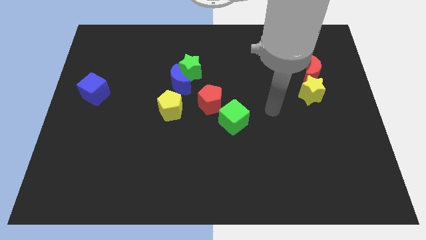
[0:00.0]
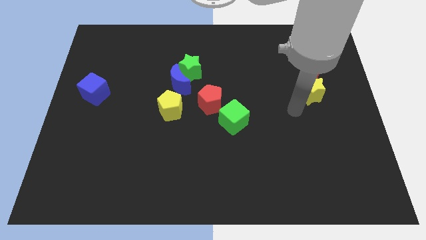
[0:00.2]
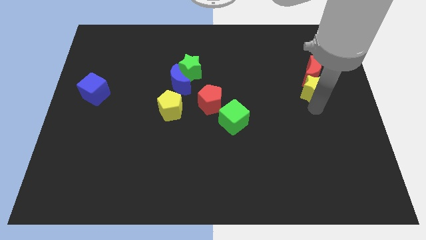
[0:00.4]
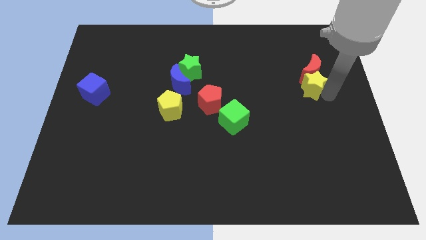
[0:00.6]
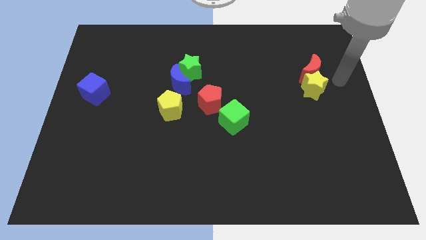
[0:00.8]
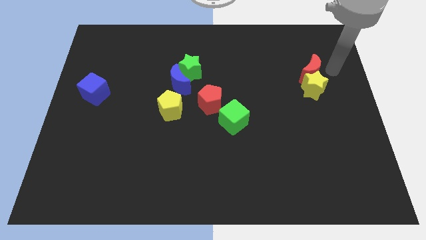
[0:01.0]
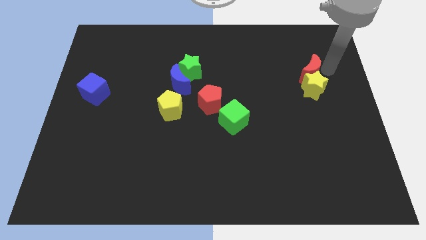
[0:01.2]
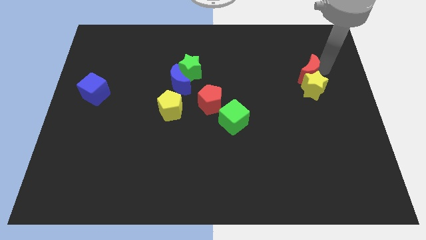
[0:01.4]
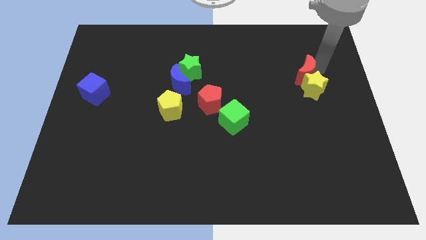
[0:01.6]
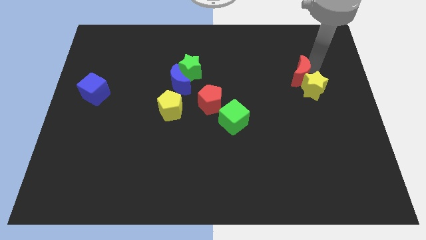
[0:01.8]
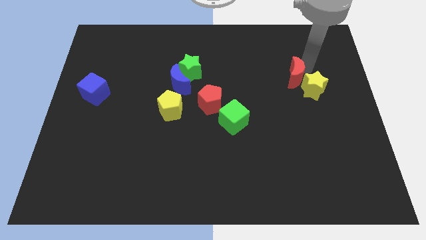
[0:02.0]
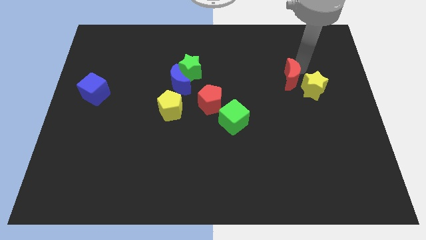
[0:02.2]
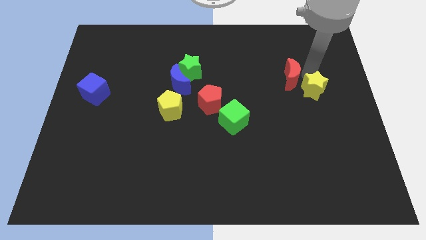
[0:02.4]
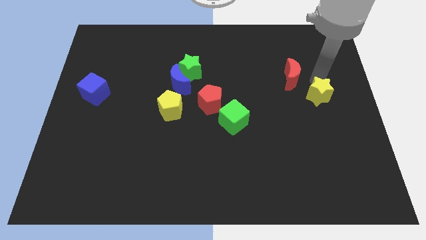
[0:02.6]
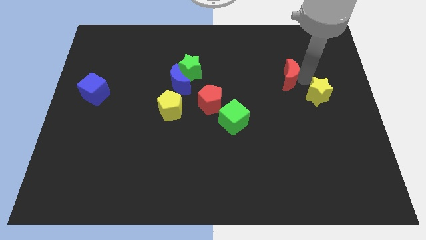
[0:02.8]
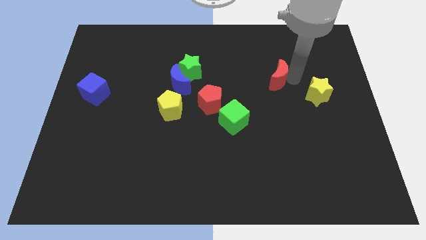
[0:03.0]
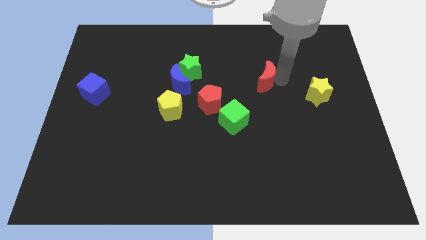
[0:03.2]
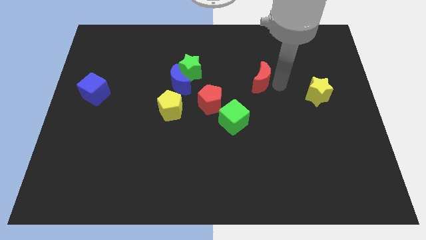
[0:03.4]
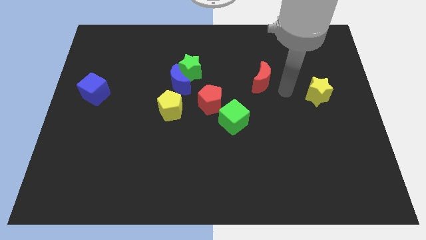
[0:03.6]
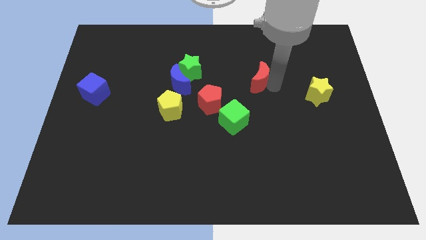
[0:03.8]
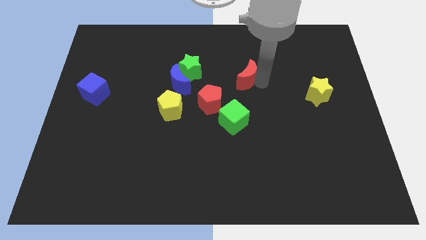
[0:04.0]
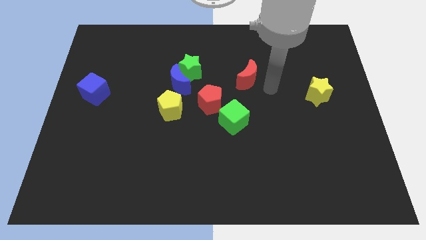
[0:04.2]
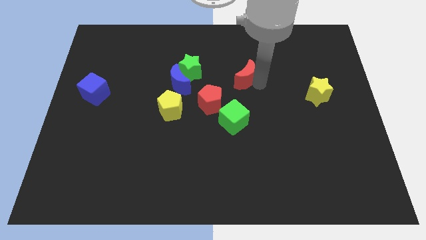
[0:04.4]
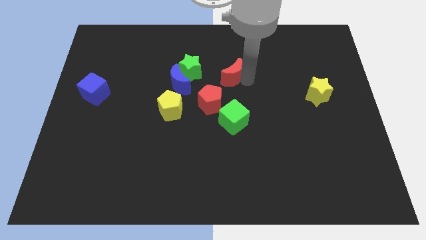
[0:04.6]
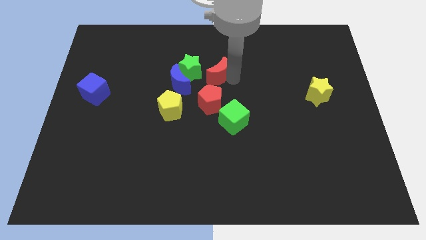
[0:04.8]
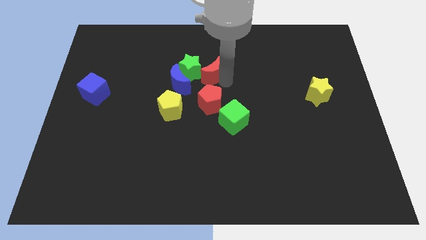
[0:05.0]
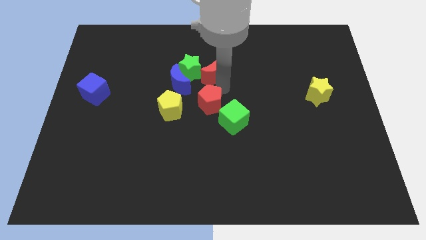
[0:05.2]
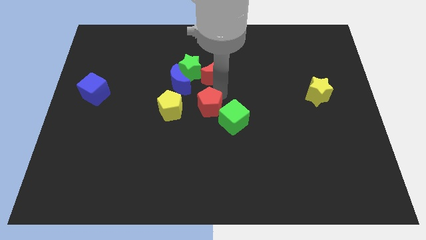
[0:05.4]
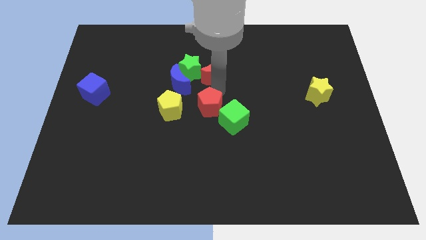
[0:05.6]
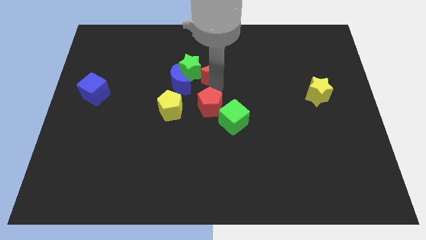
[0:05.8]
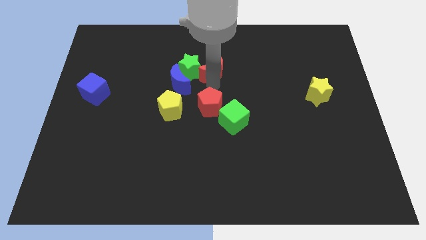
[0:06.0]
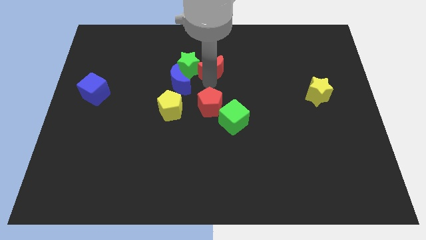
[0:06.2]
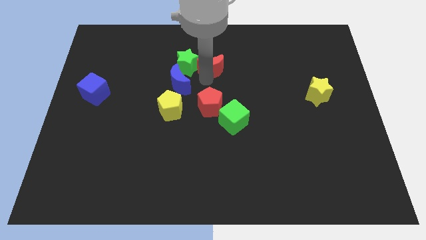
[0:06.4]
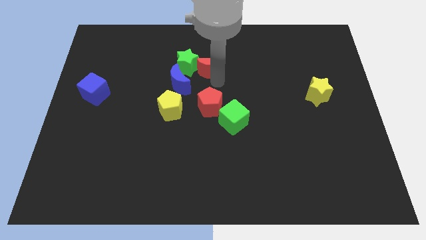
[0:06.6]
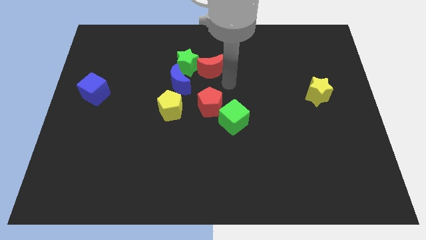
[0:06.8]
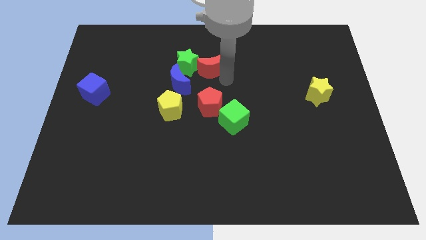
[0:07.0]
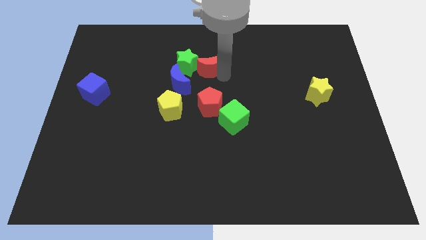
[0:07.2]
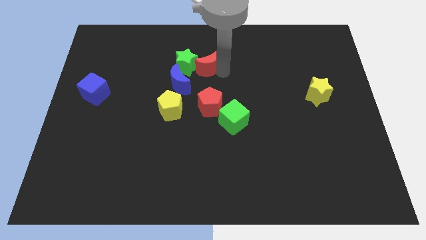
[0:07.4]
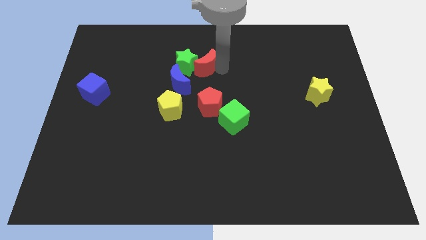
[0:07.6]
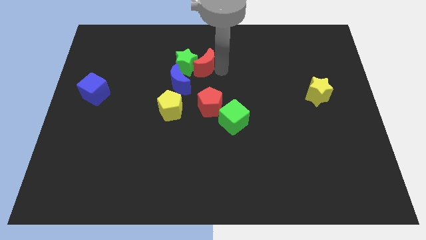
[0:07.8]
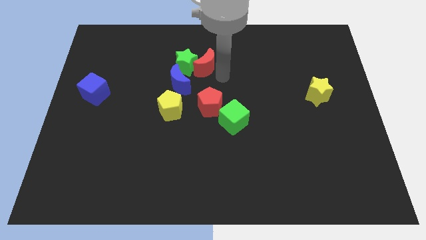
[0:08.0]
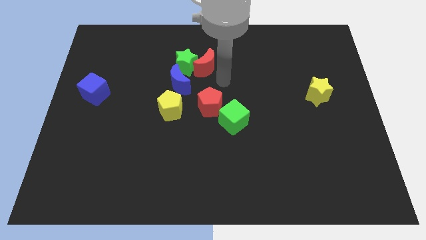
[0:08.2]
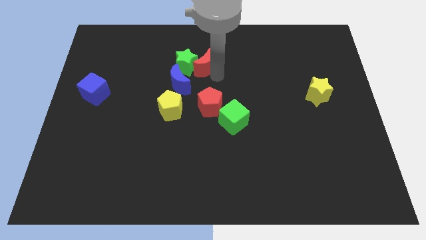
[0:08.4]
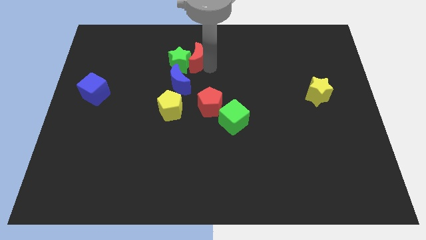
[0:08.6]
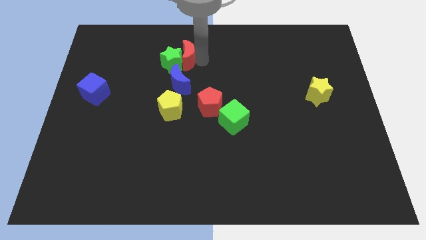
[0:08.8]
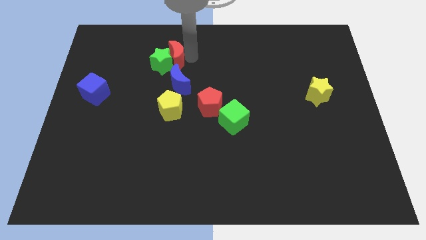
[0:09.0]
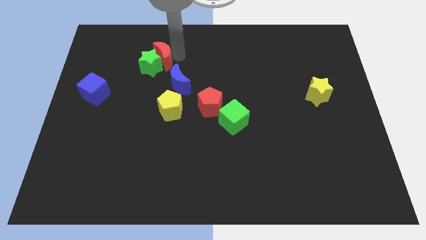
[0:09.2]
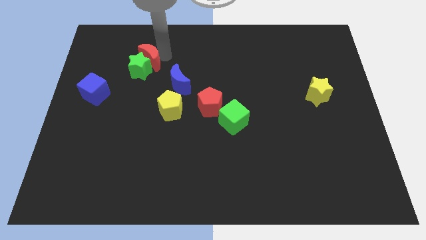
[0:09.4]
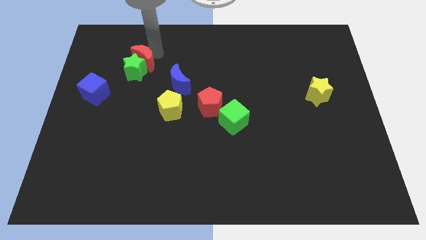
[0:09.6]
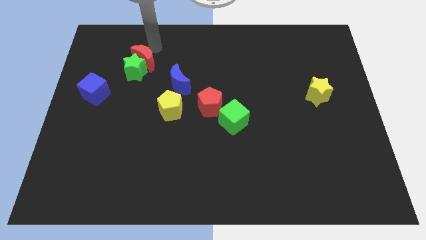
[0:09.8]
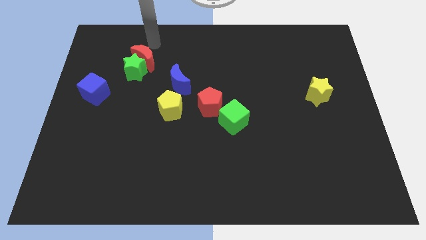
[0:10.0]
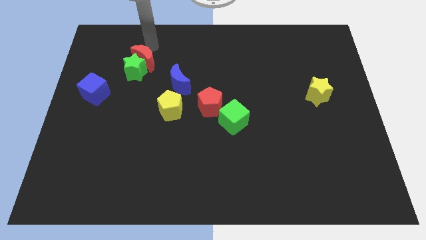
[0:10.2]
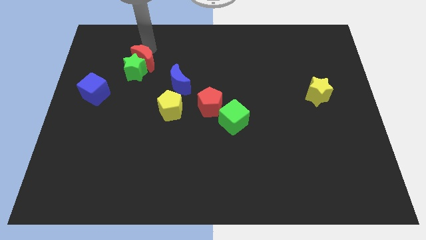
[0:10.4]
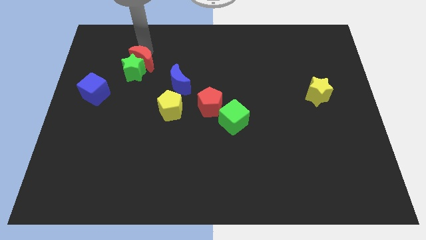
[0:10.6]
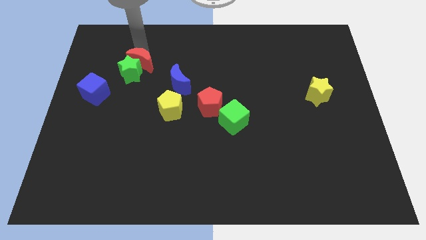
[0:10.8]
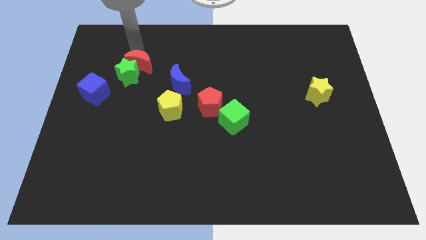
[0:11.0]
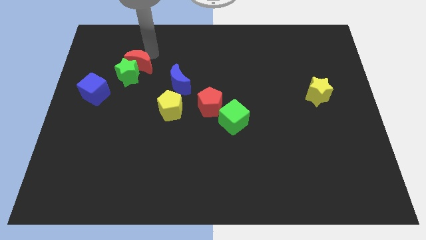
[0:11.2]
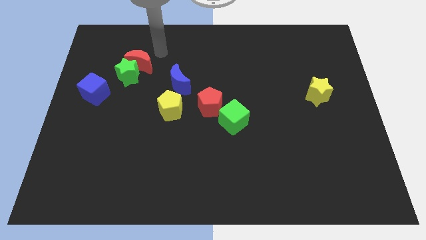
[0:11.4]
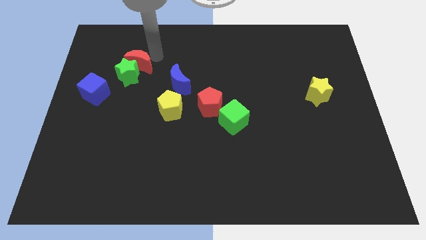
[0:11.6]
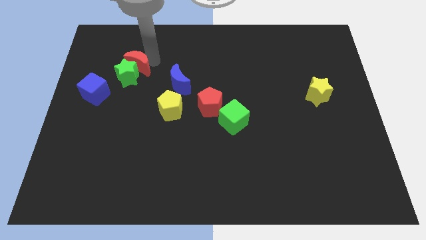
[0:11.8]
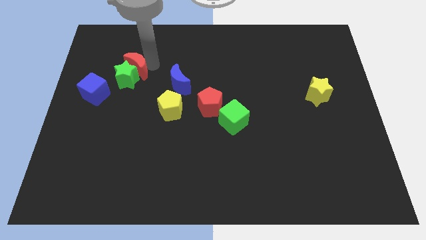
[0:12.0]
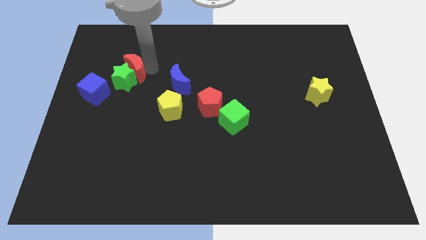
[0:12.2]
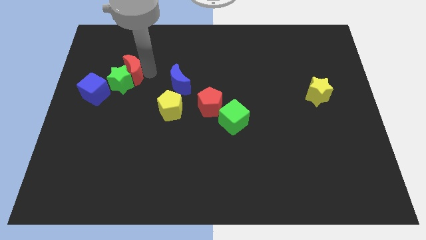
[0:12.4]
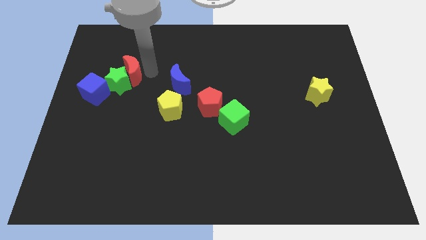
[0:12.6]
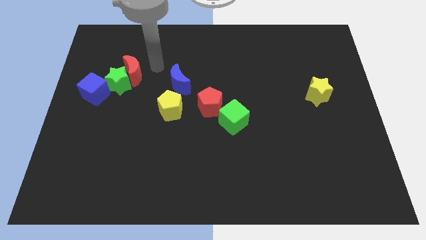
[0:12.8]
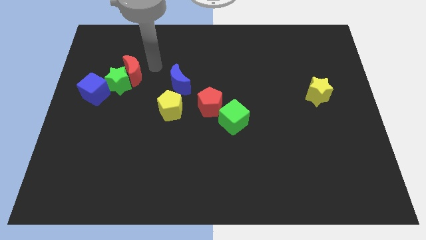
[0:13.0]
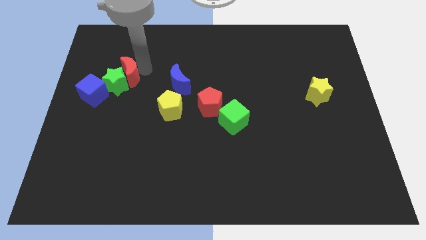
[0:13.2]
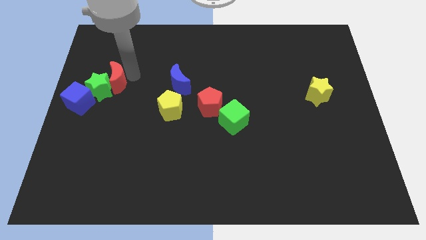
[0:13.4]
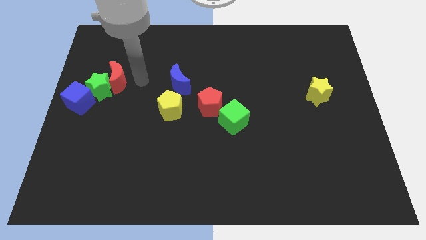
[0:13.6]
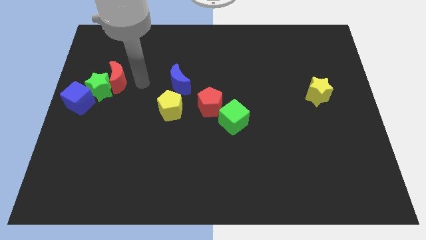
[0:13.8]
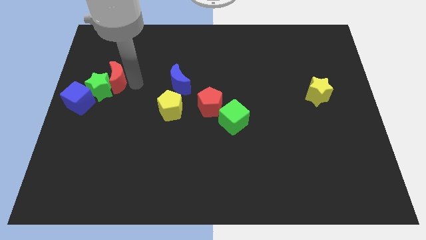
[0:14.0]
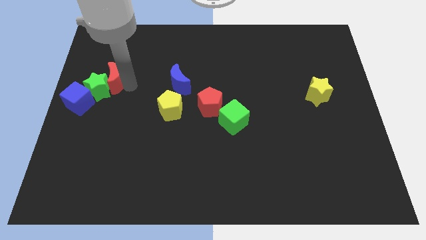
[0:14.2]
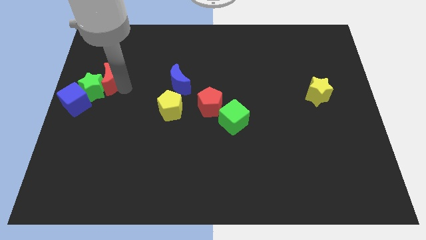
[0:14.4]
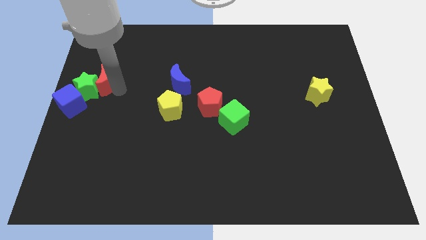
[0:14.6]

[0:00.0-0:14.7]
push the red moon to the left side
